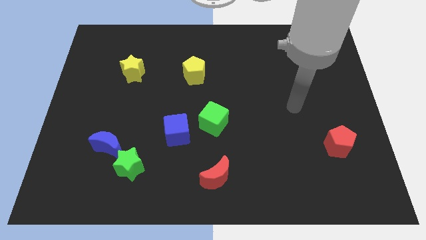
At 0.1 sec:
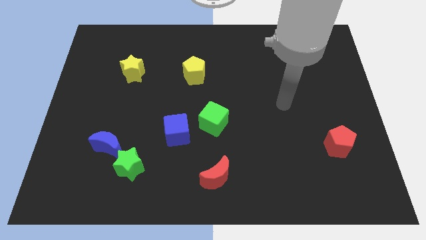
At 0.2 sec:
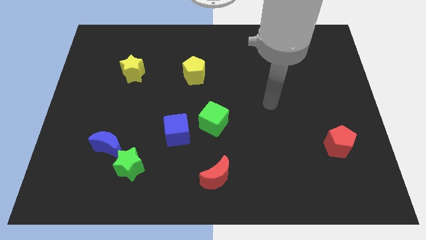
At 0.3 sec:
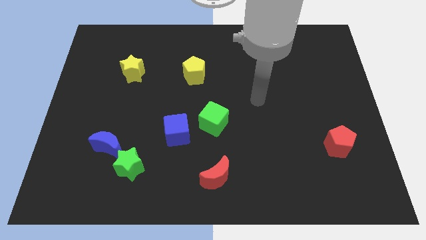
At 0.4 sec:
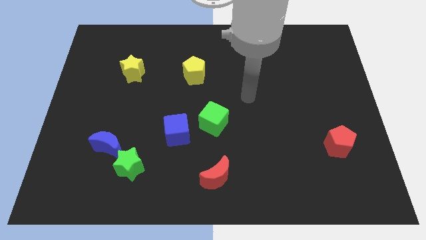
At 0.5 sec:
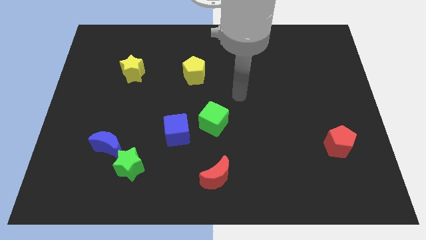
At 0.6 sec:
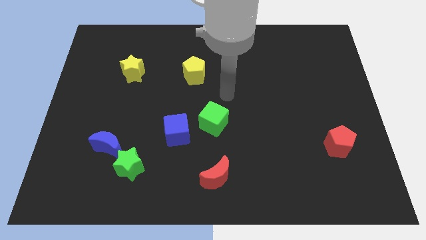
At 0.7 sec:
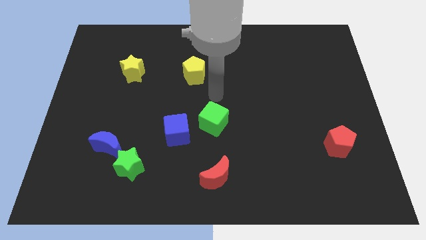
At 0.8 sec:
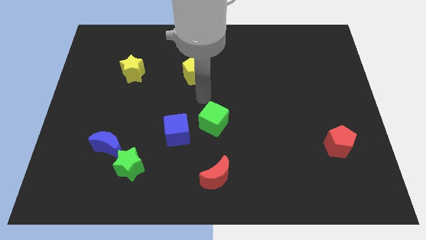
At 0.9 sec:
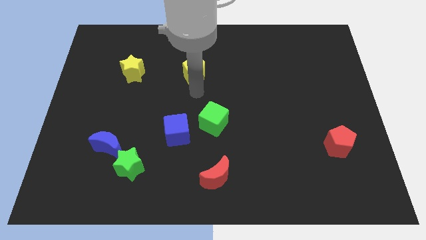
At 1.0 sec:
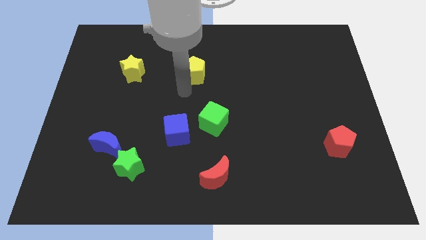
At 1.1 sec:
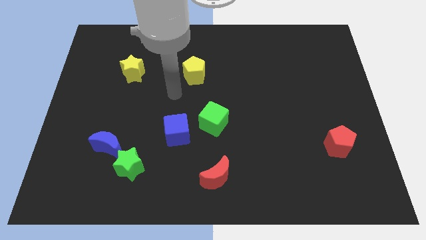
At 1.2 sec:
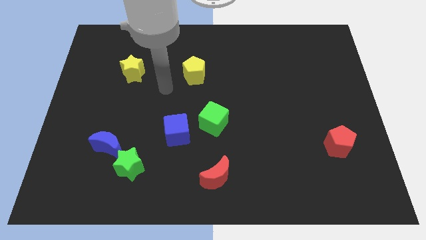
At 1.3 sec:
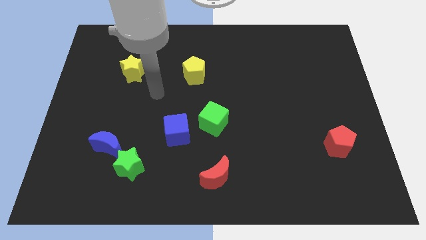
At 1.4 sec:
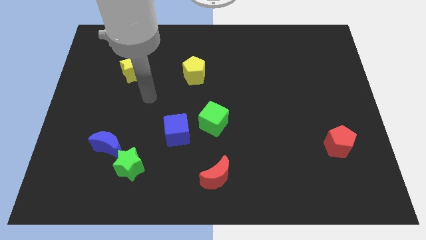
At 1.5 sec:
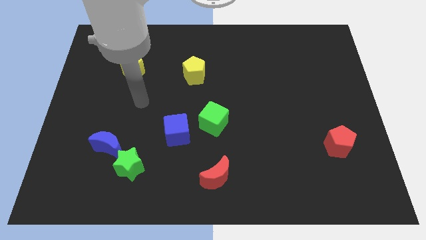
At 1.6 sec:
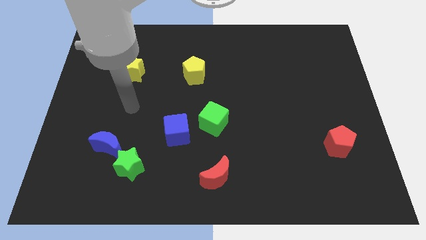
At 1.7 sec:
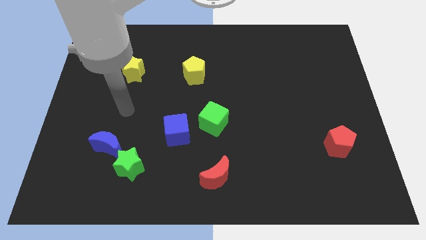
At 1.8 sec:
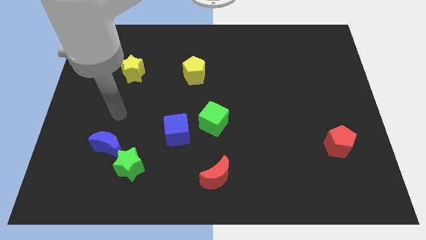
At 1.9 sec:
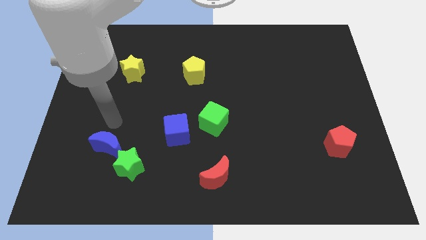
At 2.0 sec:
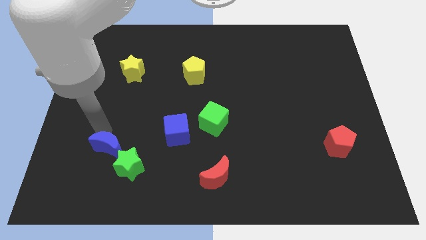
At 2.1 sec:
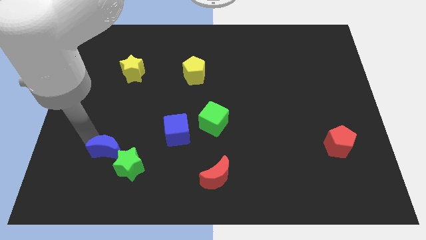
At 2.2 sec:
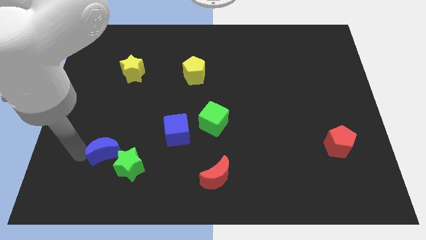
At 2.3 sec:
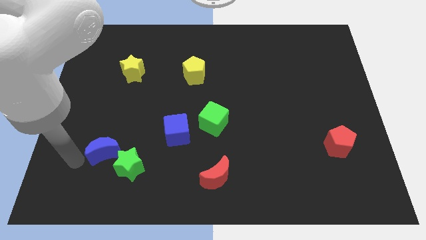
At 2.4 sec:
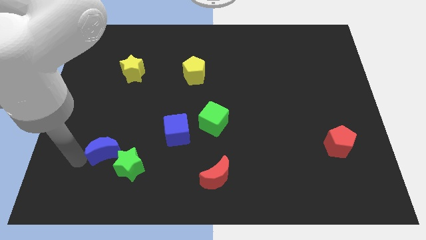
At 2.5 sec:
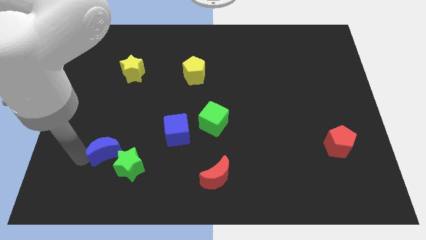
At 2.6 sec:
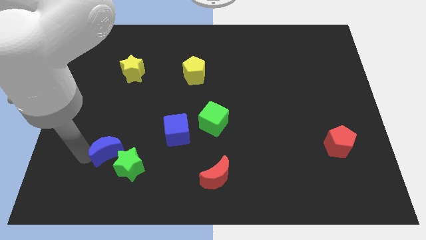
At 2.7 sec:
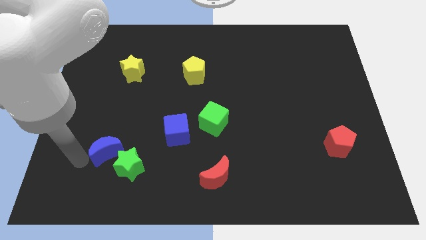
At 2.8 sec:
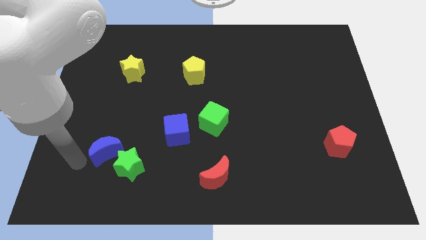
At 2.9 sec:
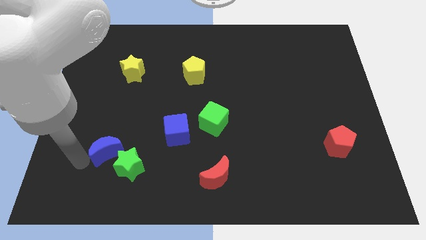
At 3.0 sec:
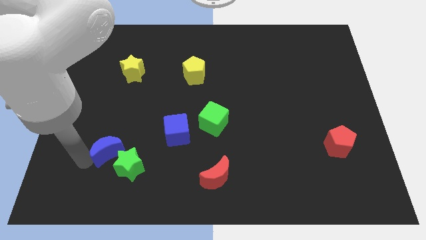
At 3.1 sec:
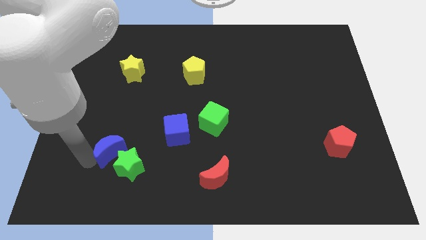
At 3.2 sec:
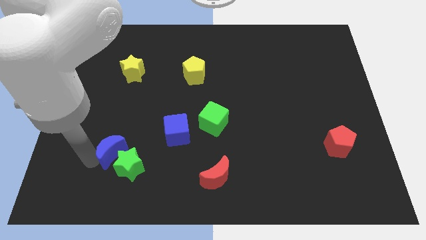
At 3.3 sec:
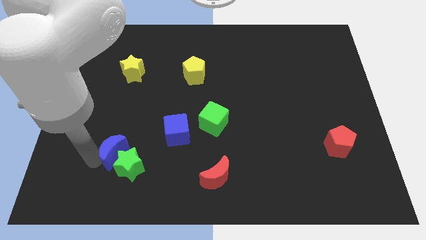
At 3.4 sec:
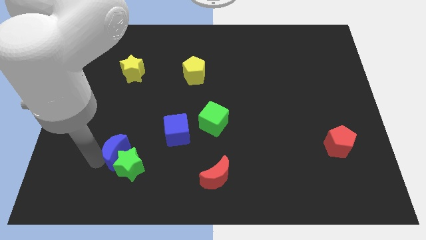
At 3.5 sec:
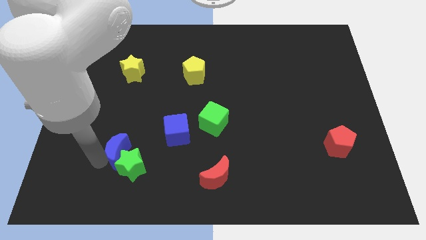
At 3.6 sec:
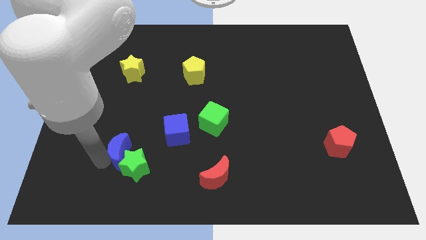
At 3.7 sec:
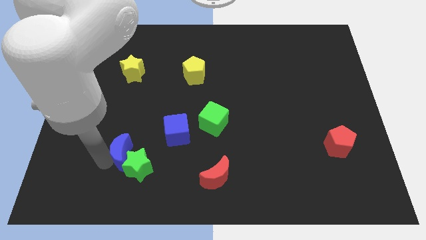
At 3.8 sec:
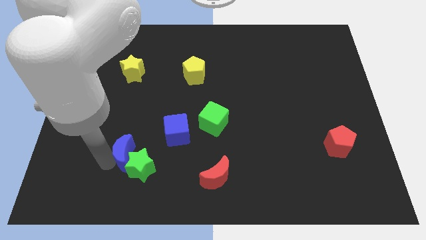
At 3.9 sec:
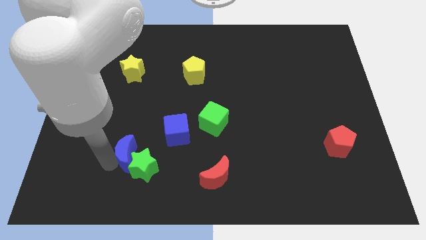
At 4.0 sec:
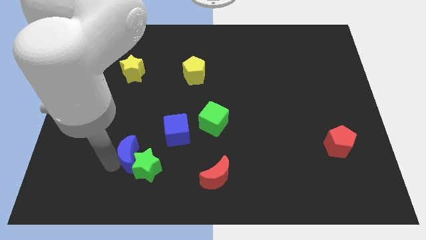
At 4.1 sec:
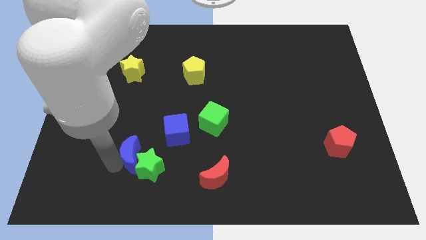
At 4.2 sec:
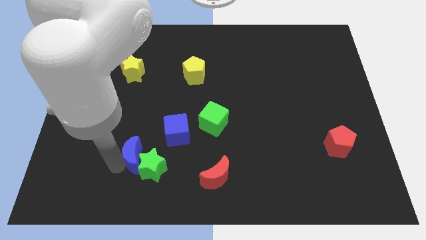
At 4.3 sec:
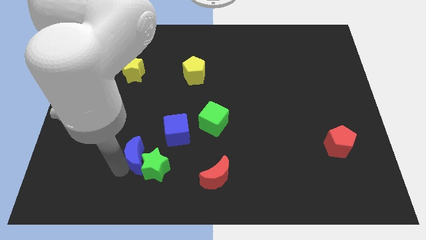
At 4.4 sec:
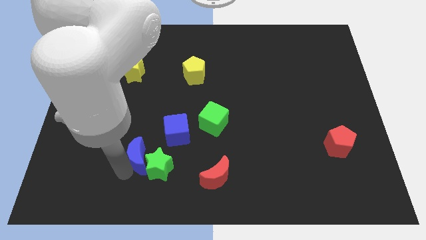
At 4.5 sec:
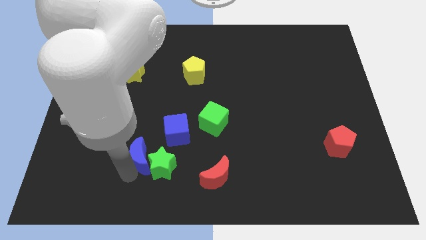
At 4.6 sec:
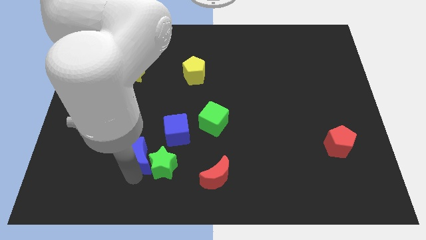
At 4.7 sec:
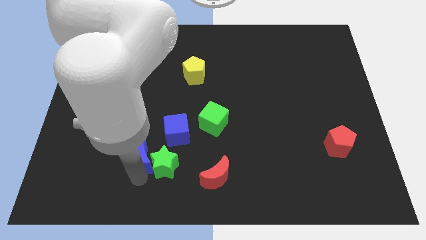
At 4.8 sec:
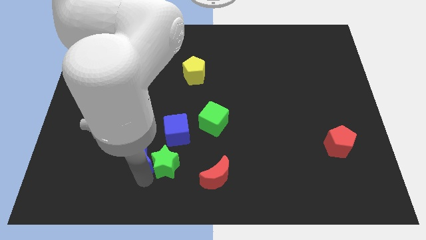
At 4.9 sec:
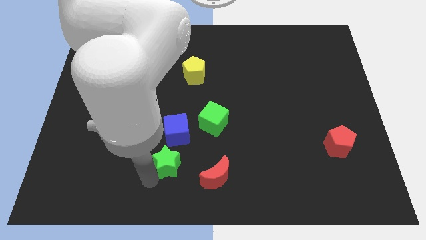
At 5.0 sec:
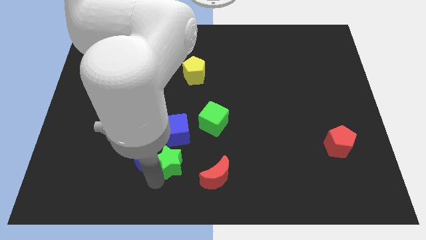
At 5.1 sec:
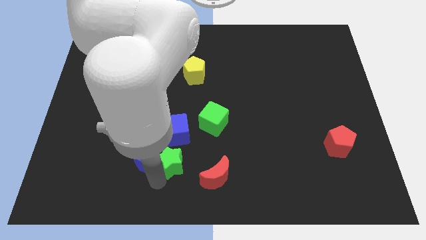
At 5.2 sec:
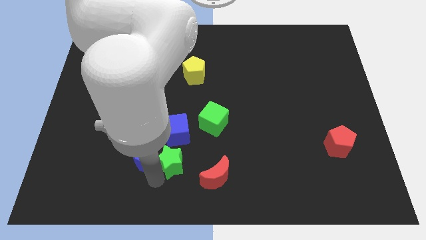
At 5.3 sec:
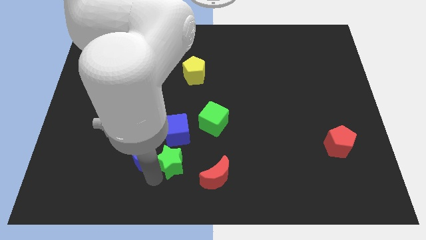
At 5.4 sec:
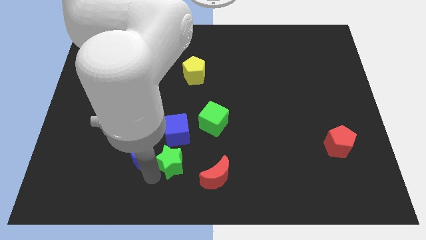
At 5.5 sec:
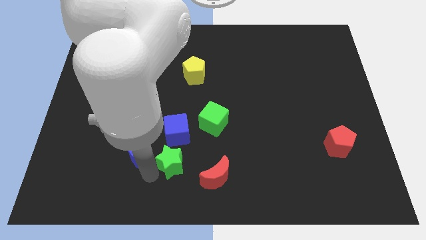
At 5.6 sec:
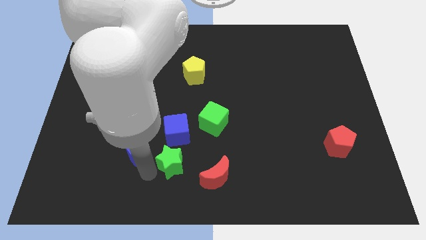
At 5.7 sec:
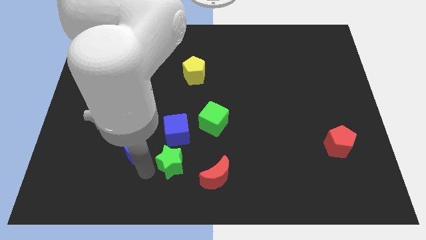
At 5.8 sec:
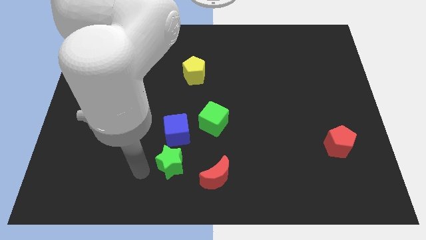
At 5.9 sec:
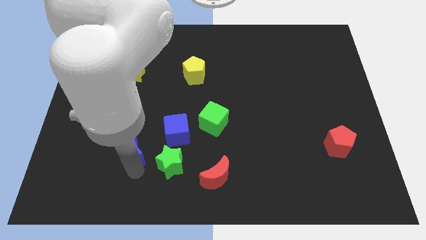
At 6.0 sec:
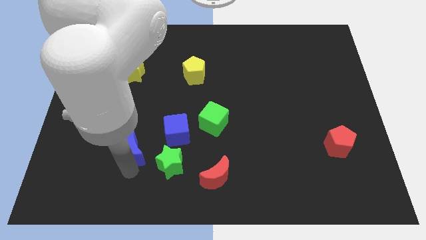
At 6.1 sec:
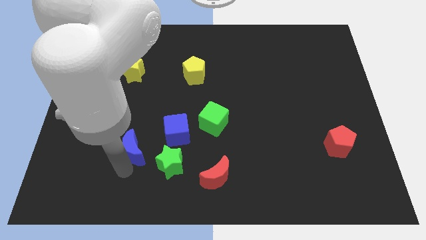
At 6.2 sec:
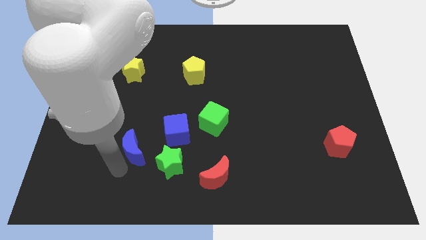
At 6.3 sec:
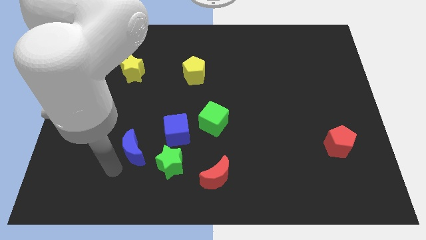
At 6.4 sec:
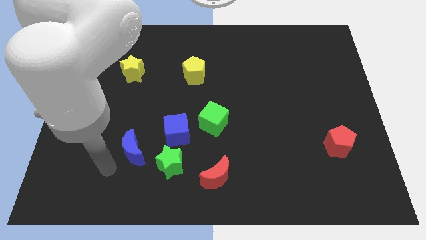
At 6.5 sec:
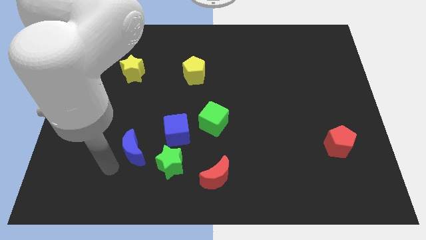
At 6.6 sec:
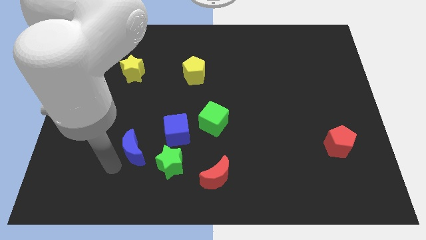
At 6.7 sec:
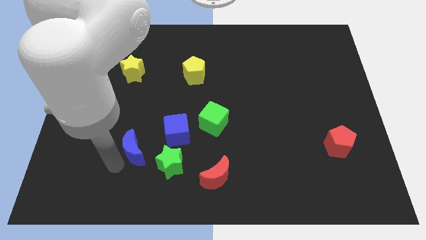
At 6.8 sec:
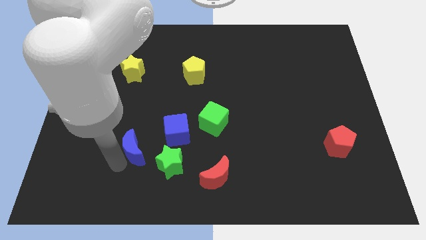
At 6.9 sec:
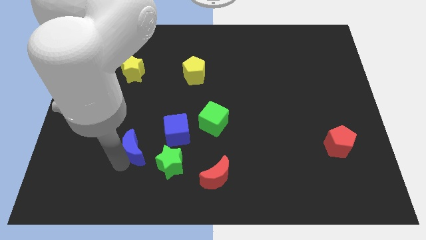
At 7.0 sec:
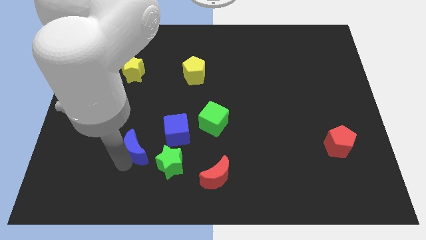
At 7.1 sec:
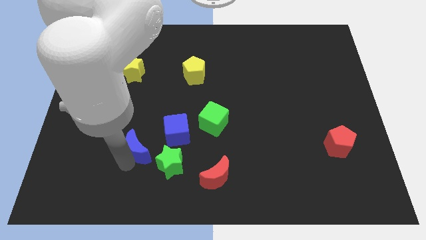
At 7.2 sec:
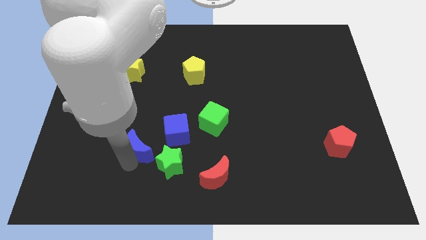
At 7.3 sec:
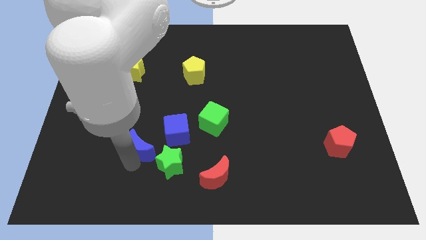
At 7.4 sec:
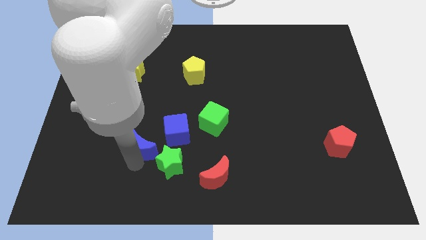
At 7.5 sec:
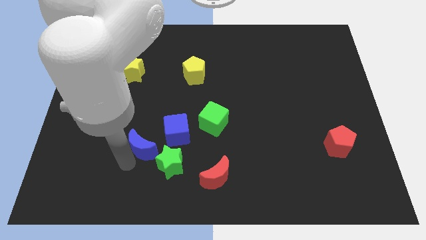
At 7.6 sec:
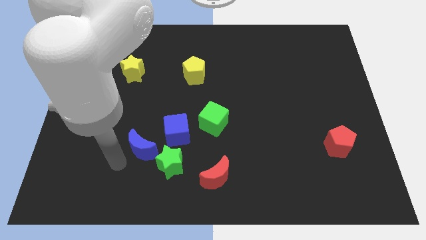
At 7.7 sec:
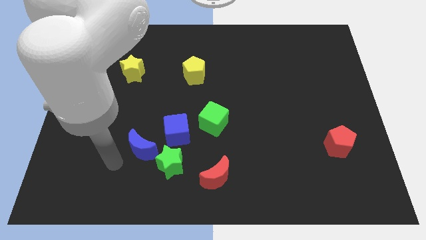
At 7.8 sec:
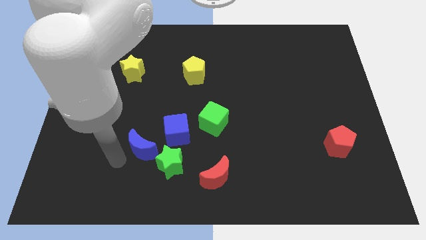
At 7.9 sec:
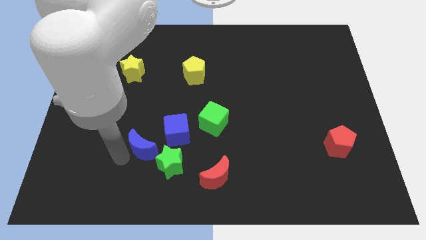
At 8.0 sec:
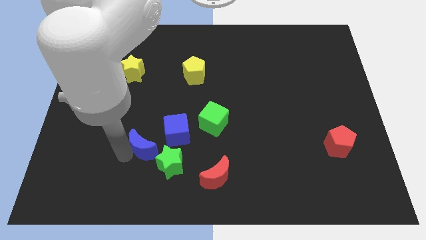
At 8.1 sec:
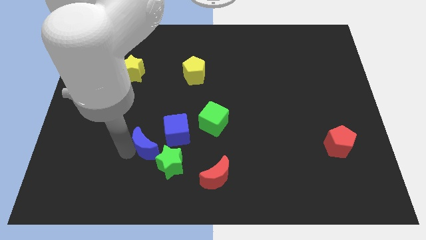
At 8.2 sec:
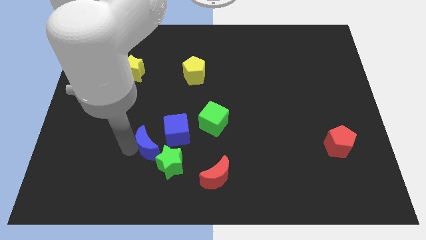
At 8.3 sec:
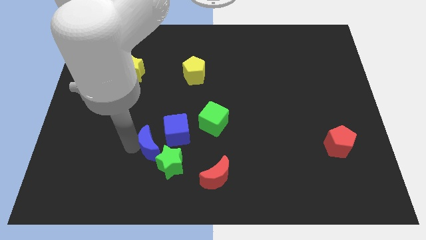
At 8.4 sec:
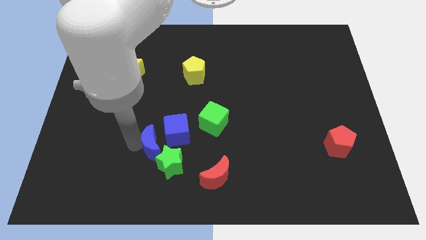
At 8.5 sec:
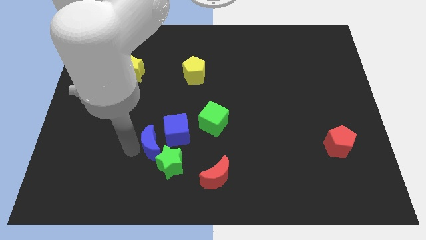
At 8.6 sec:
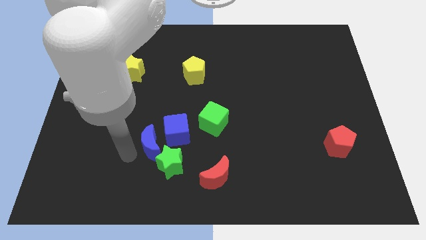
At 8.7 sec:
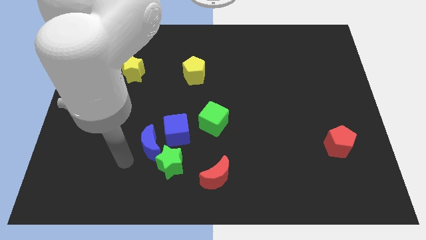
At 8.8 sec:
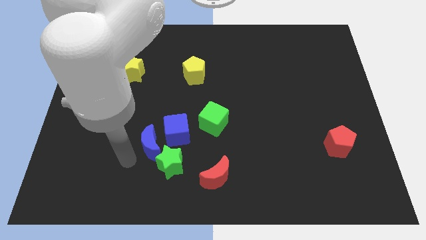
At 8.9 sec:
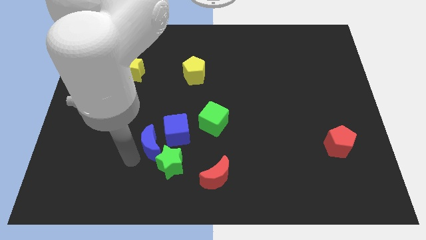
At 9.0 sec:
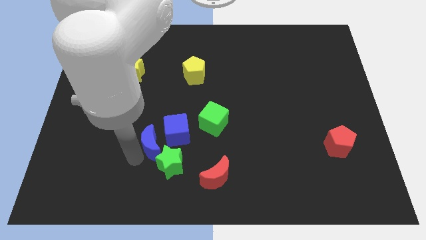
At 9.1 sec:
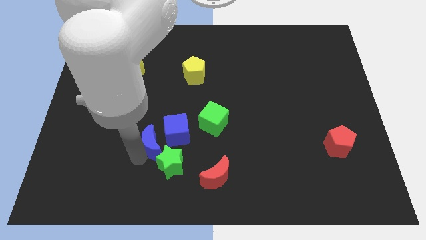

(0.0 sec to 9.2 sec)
slide the blue moon to the blue cube
